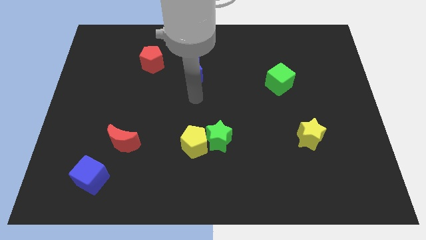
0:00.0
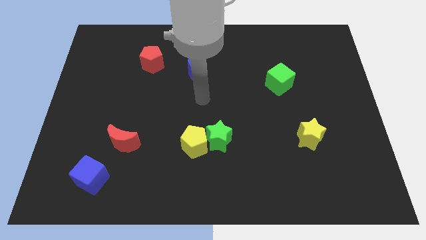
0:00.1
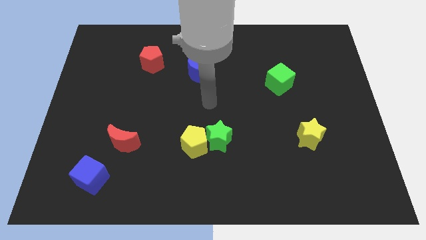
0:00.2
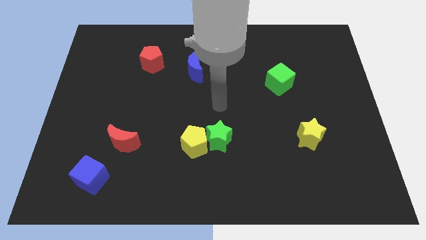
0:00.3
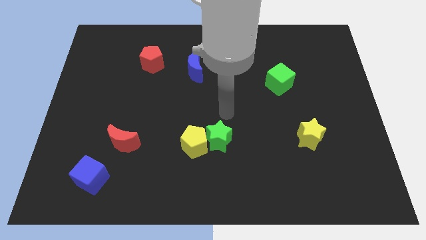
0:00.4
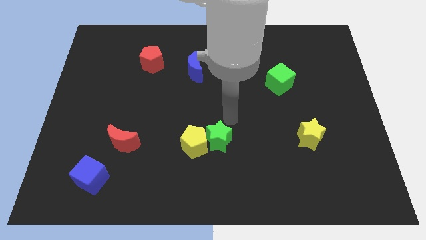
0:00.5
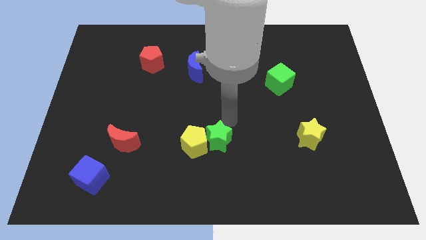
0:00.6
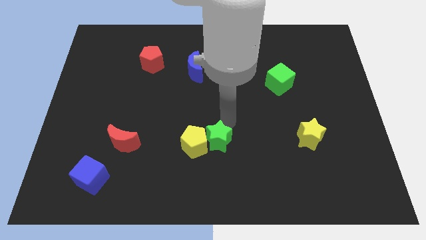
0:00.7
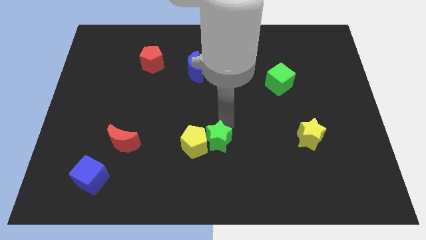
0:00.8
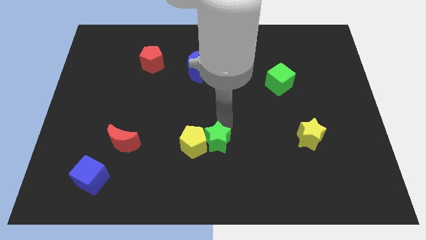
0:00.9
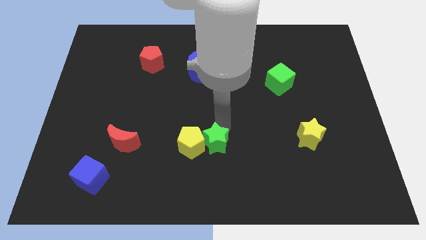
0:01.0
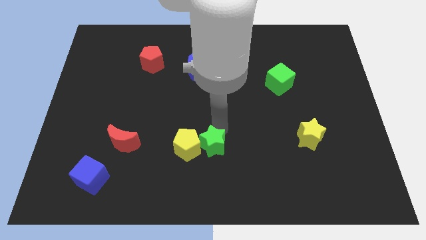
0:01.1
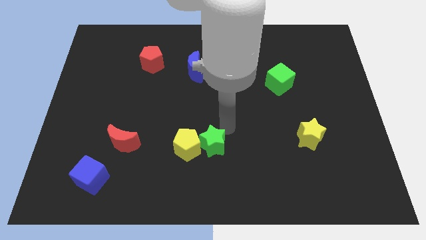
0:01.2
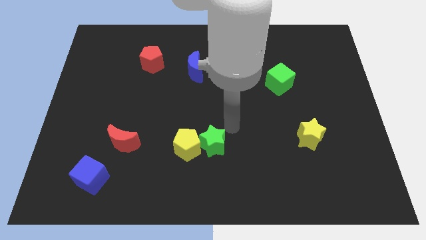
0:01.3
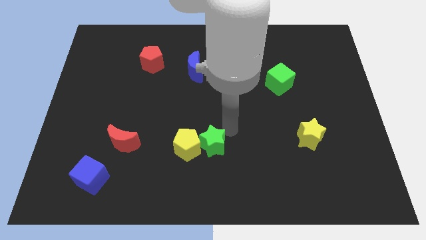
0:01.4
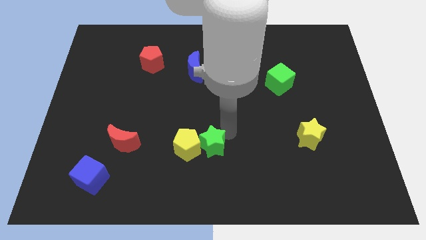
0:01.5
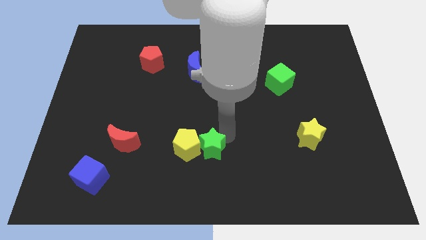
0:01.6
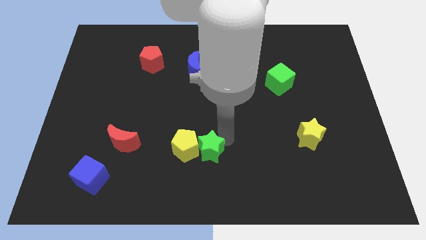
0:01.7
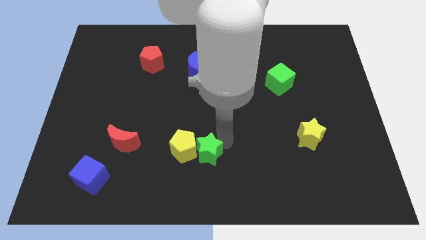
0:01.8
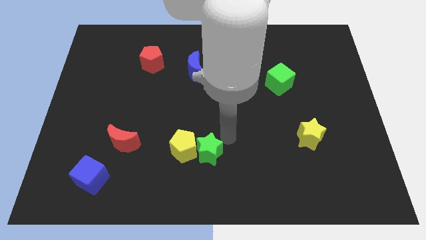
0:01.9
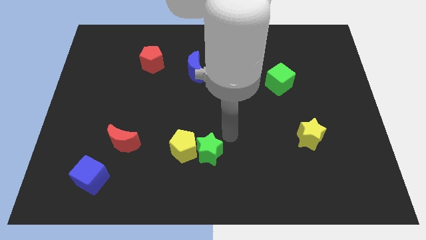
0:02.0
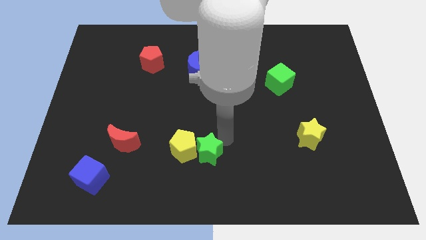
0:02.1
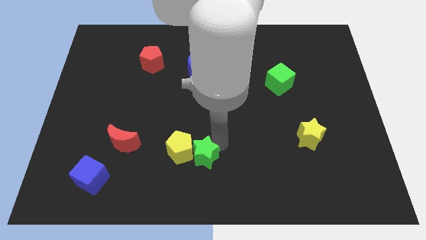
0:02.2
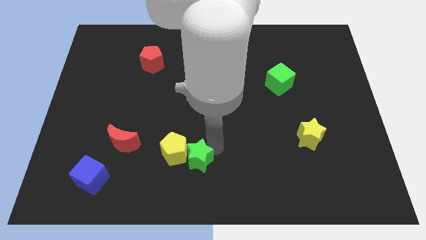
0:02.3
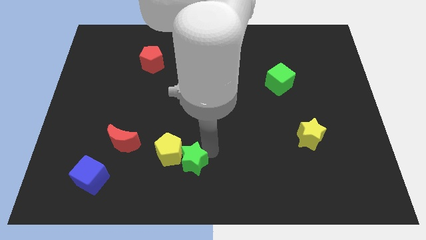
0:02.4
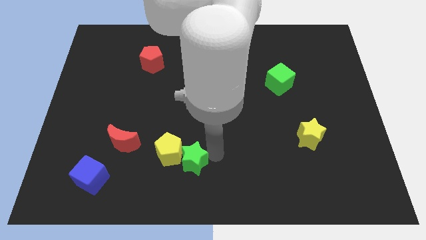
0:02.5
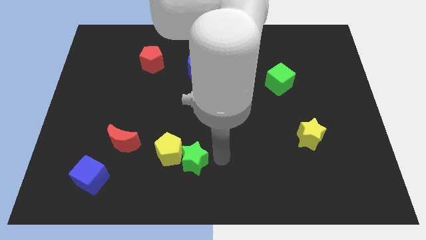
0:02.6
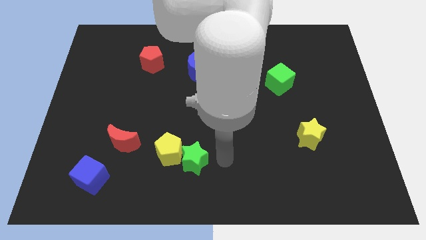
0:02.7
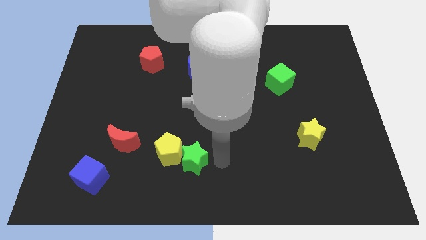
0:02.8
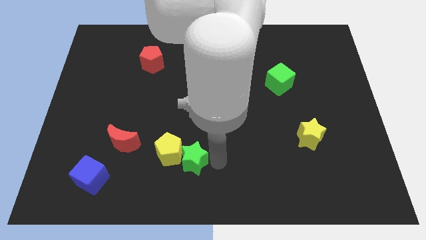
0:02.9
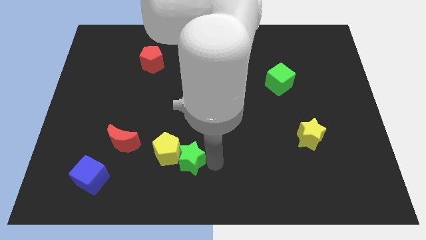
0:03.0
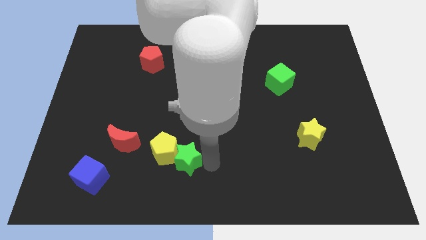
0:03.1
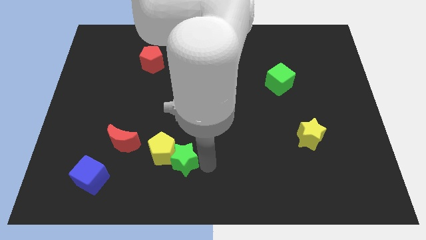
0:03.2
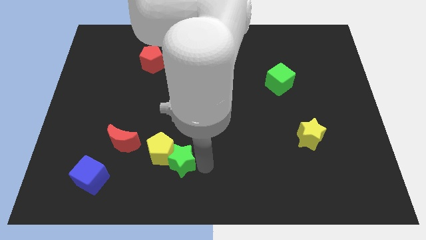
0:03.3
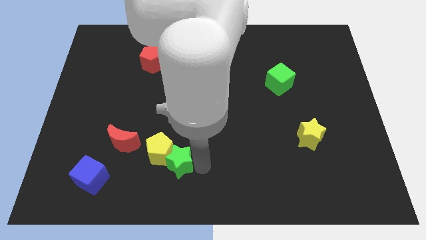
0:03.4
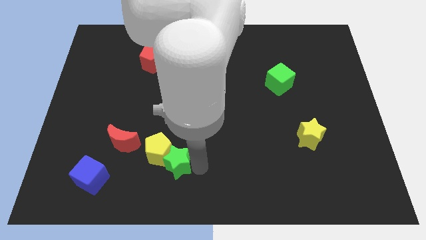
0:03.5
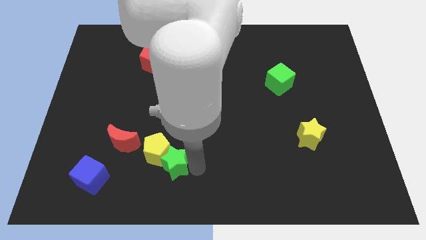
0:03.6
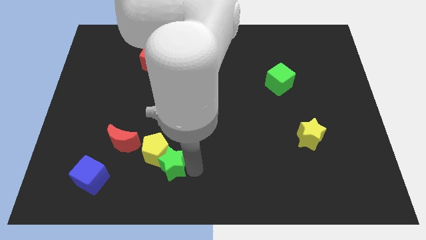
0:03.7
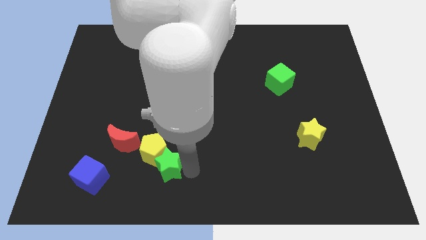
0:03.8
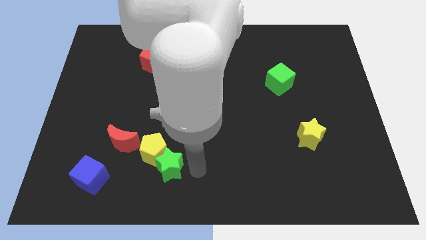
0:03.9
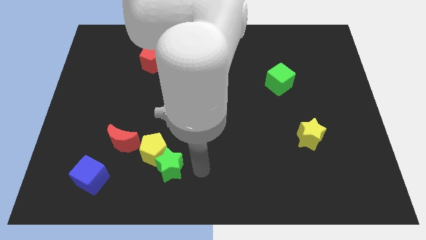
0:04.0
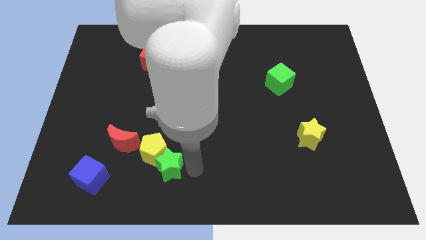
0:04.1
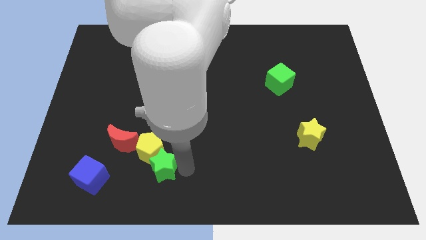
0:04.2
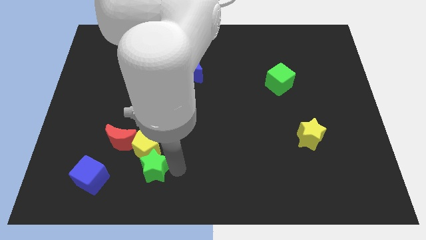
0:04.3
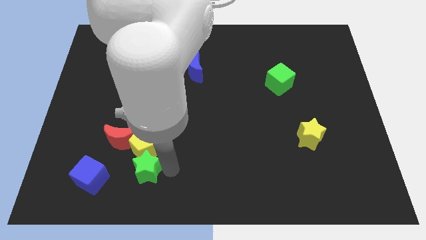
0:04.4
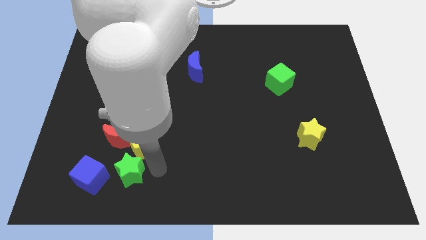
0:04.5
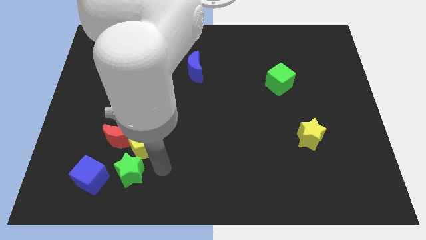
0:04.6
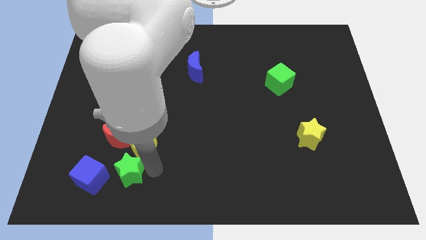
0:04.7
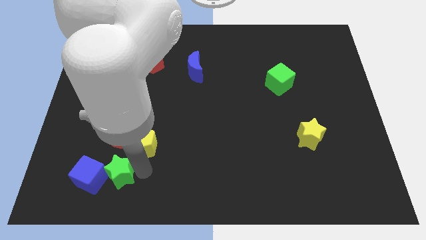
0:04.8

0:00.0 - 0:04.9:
slide the green star towards the blue cube

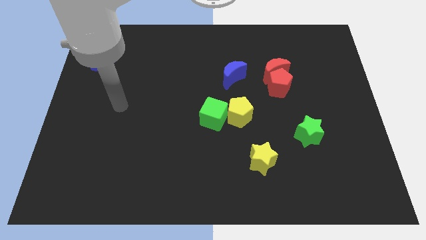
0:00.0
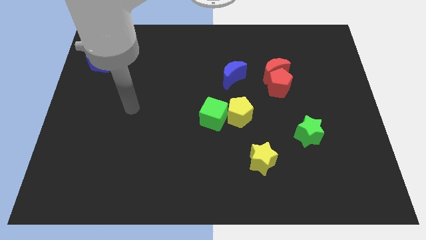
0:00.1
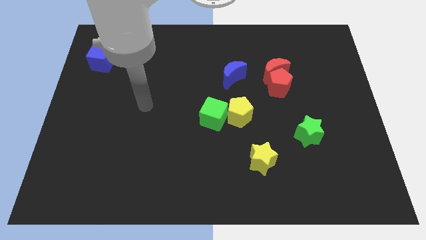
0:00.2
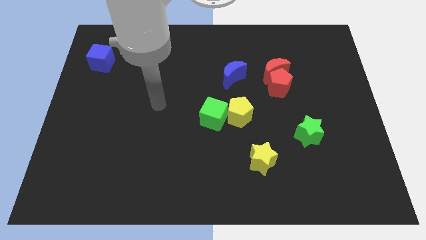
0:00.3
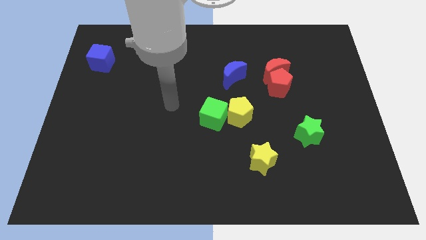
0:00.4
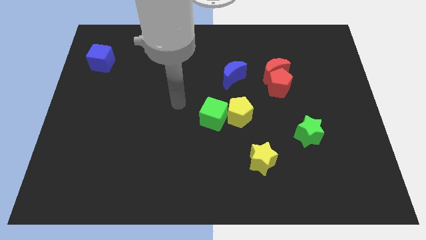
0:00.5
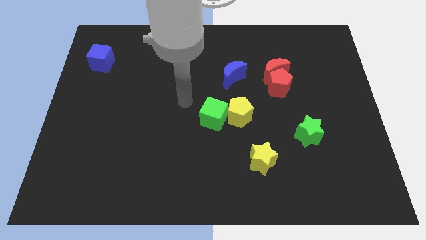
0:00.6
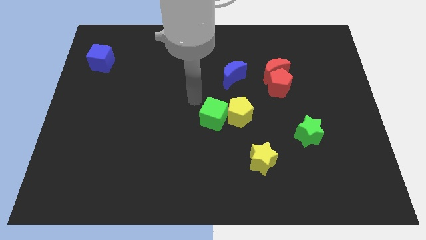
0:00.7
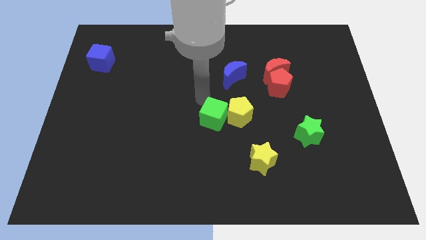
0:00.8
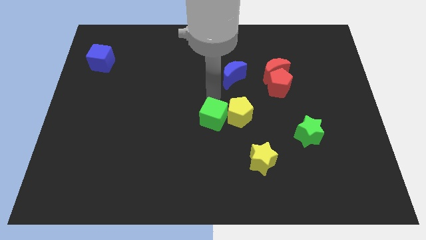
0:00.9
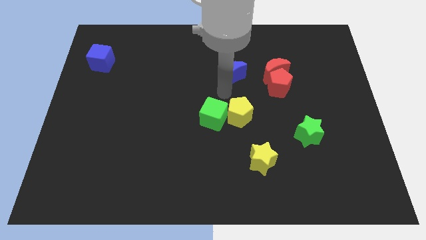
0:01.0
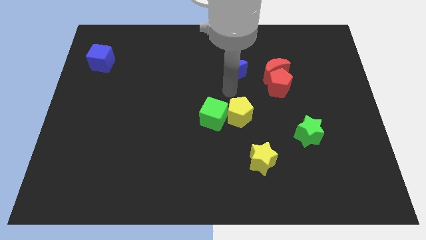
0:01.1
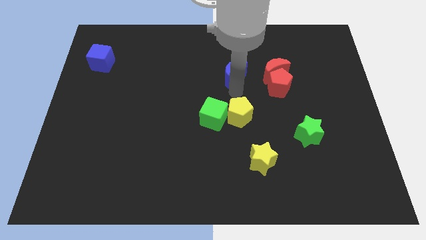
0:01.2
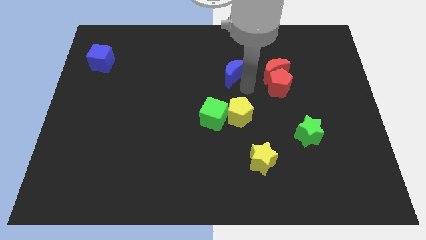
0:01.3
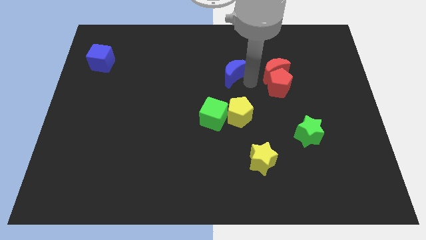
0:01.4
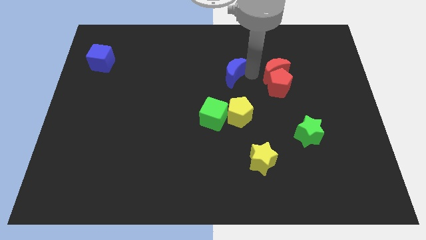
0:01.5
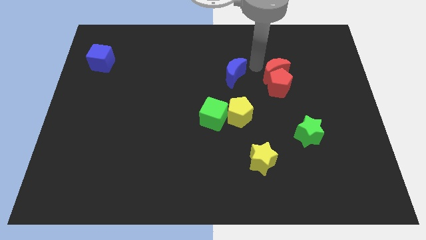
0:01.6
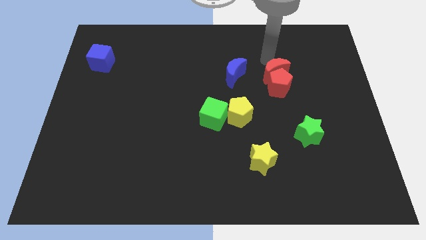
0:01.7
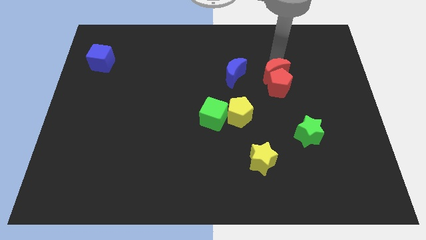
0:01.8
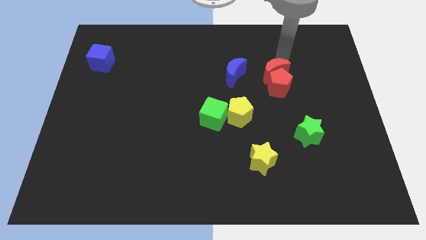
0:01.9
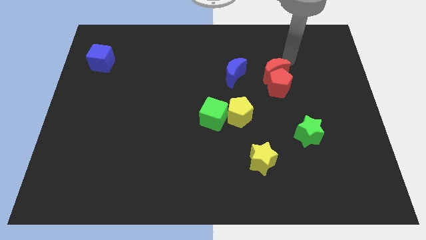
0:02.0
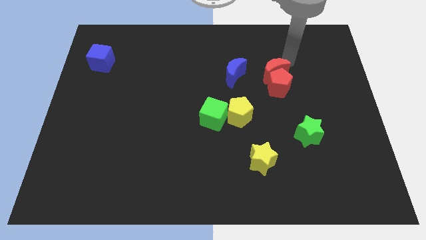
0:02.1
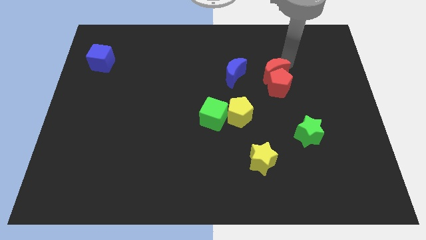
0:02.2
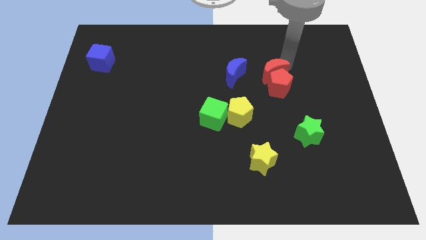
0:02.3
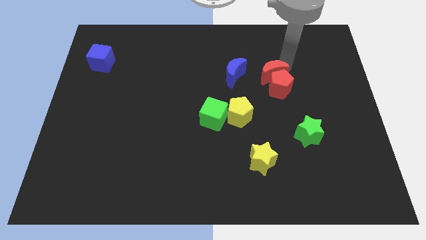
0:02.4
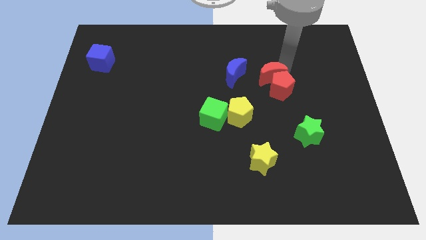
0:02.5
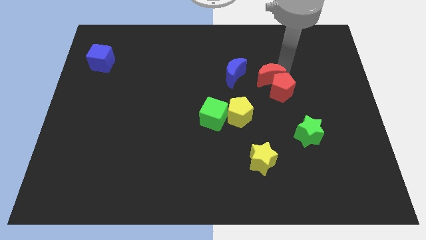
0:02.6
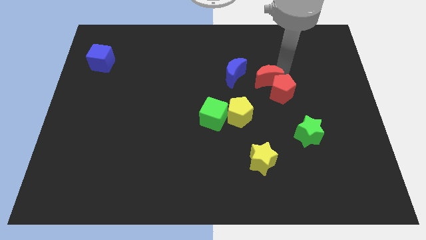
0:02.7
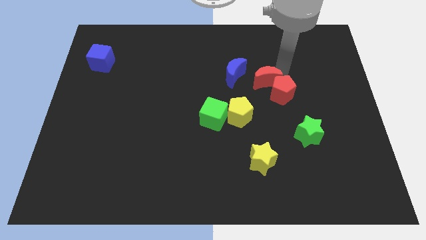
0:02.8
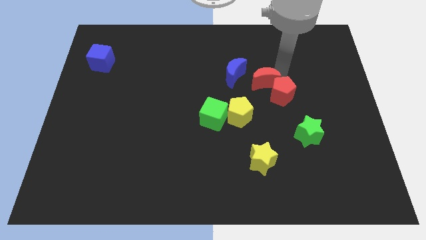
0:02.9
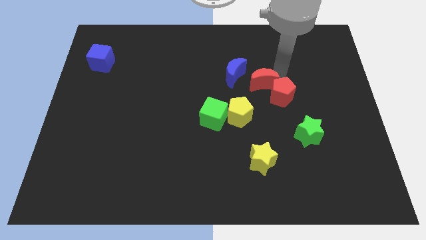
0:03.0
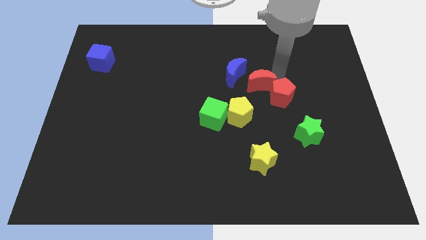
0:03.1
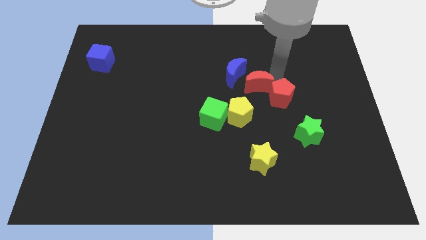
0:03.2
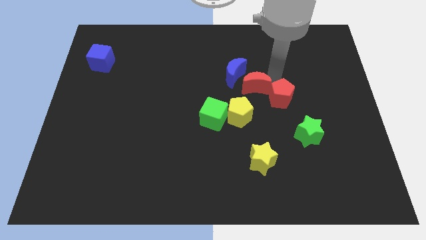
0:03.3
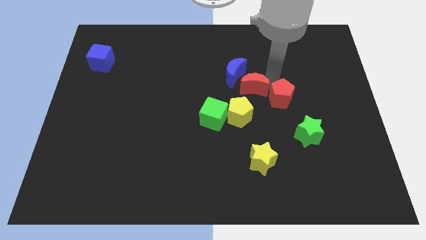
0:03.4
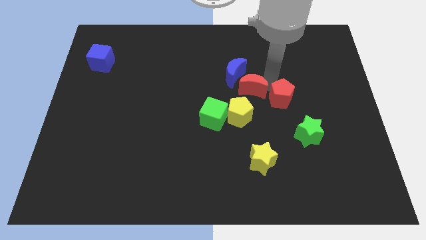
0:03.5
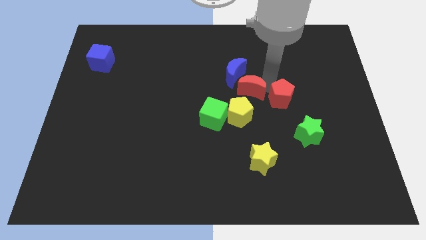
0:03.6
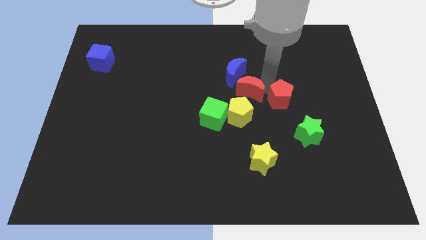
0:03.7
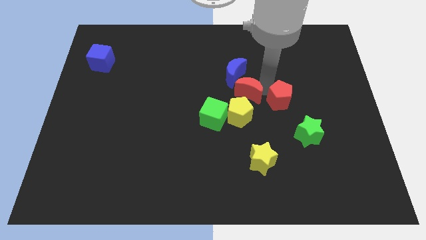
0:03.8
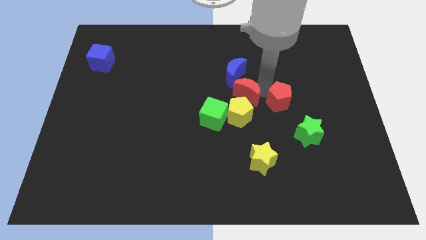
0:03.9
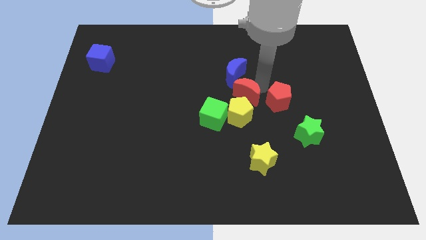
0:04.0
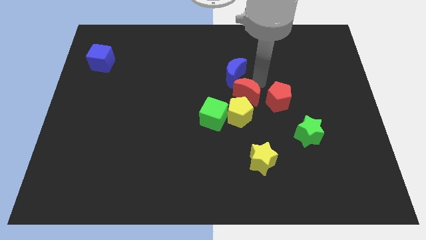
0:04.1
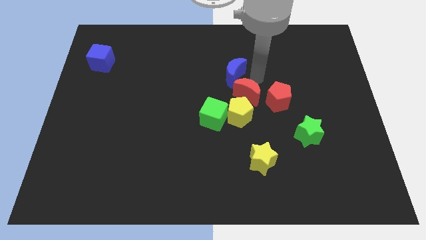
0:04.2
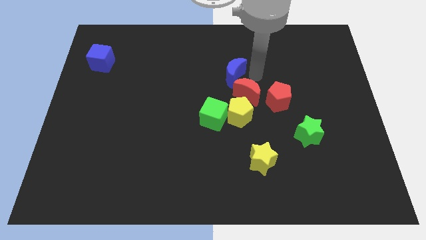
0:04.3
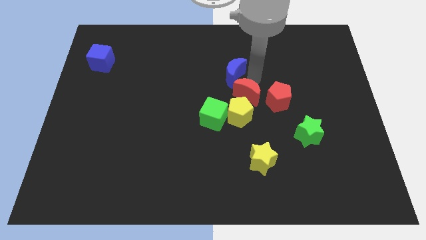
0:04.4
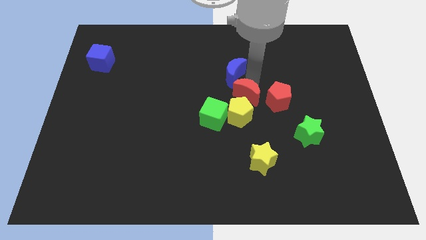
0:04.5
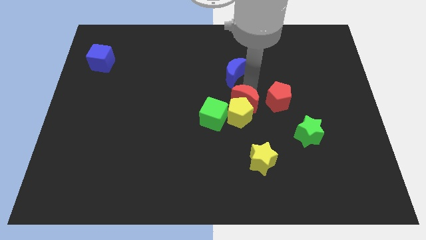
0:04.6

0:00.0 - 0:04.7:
slide the red moon towards the yellow pentagon
